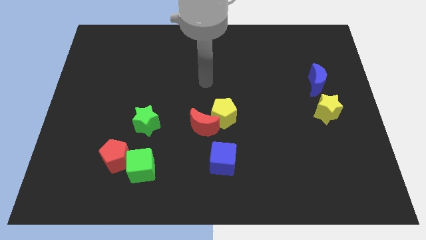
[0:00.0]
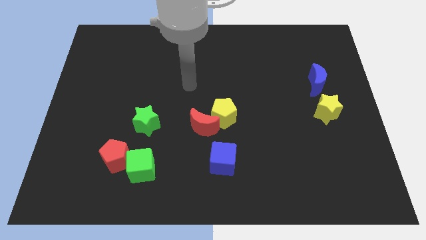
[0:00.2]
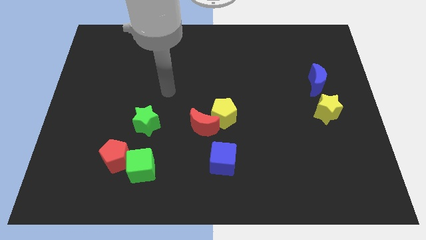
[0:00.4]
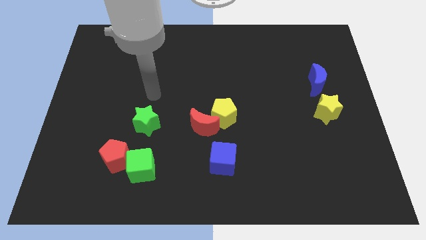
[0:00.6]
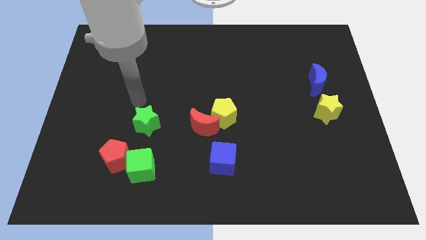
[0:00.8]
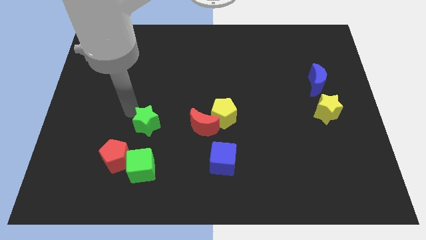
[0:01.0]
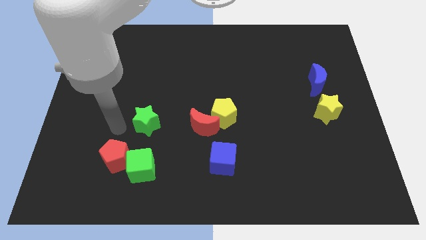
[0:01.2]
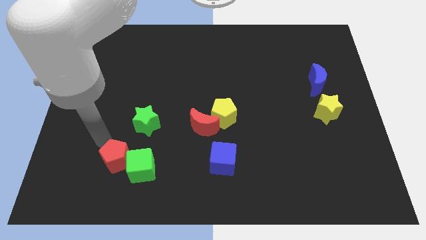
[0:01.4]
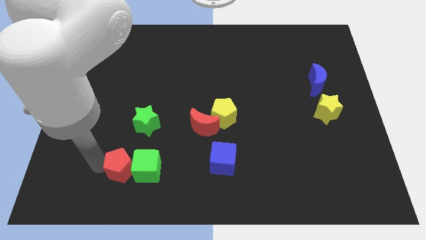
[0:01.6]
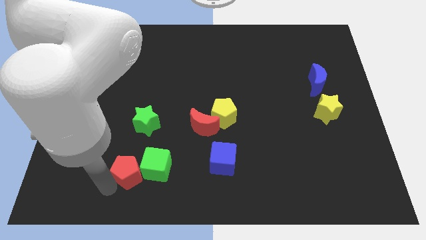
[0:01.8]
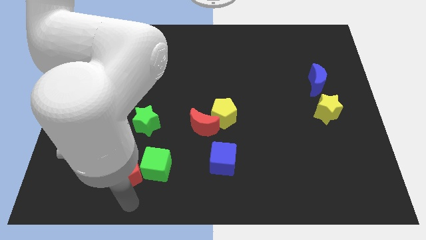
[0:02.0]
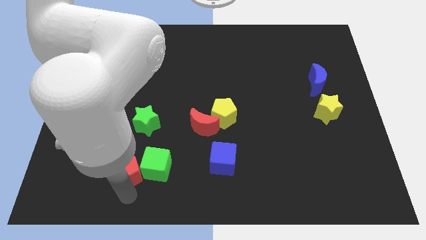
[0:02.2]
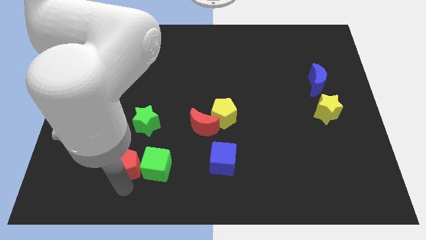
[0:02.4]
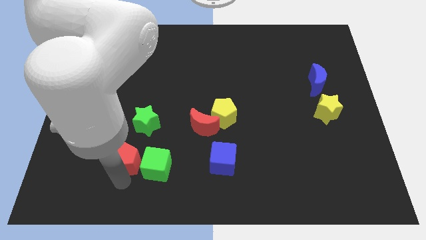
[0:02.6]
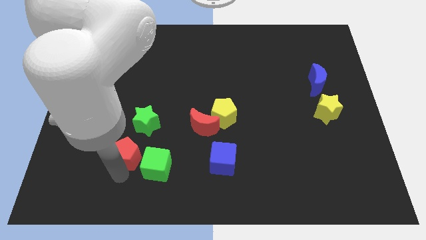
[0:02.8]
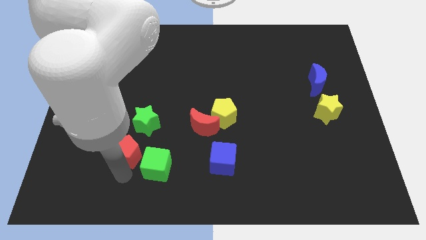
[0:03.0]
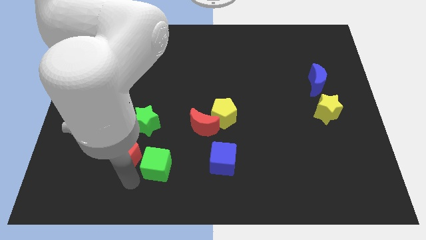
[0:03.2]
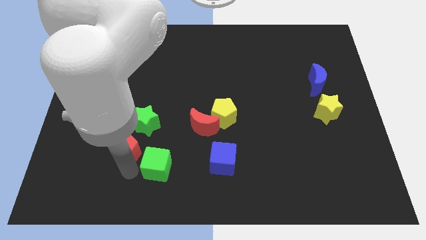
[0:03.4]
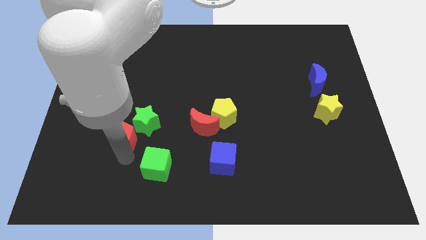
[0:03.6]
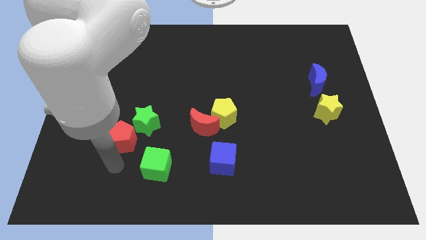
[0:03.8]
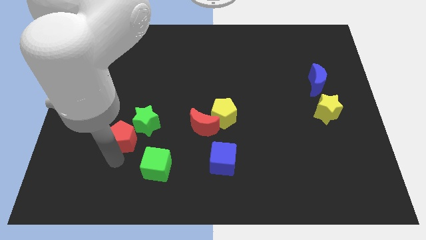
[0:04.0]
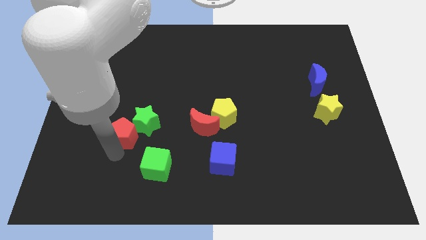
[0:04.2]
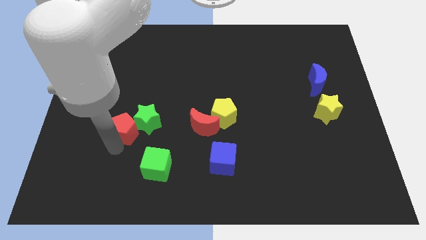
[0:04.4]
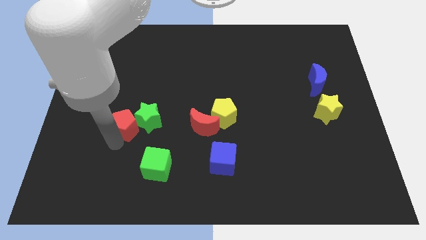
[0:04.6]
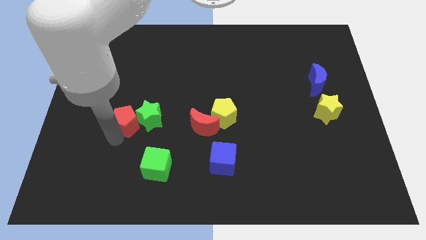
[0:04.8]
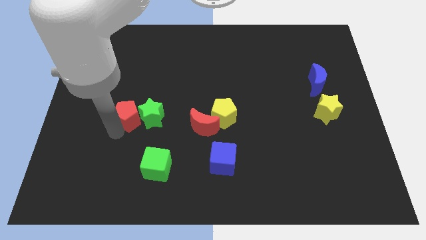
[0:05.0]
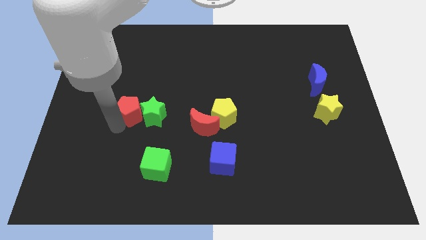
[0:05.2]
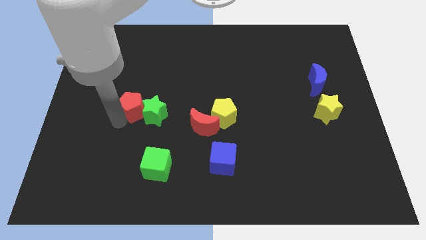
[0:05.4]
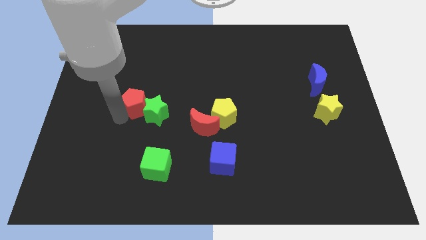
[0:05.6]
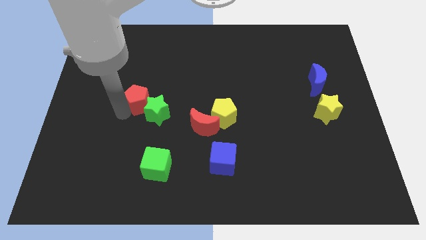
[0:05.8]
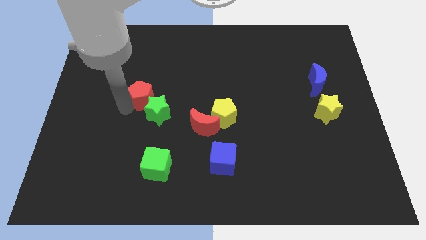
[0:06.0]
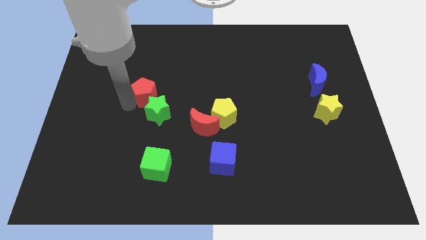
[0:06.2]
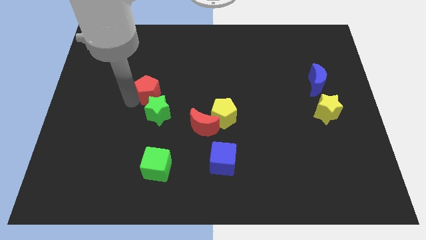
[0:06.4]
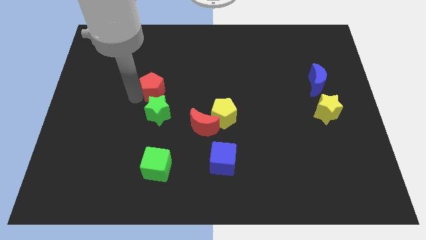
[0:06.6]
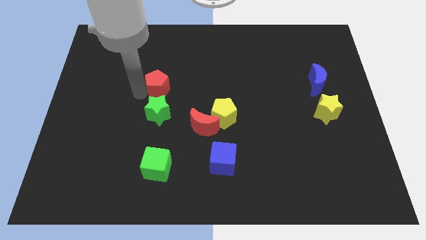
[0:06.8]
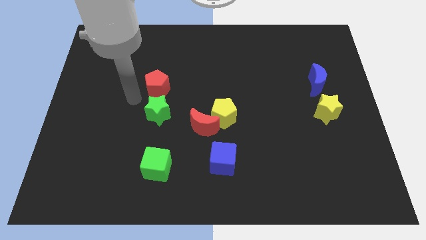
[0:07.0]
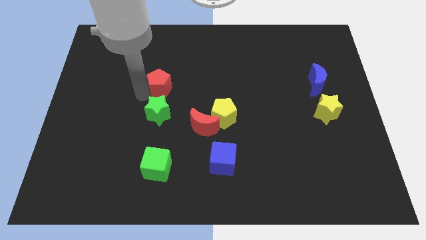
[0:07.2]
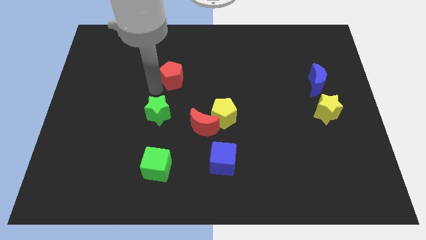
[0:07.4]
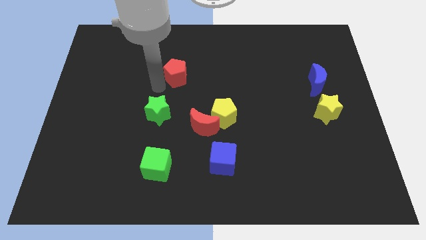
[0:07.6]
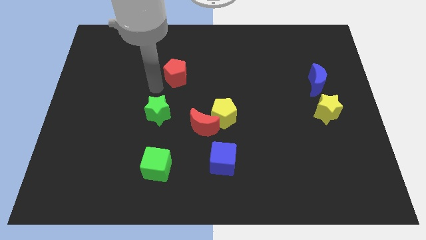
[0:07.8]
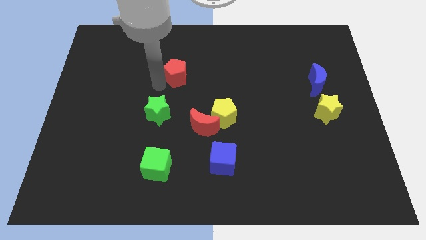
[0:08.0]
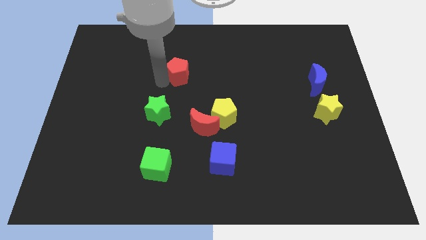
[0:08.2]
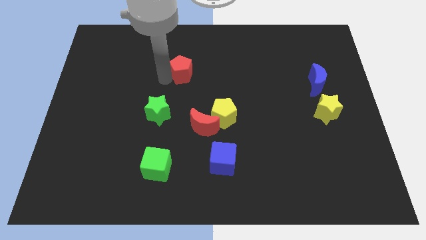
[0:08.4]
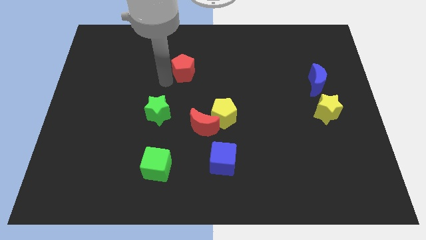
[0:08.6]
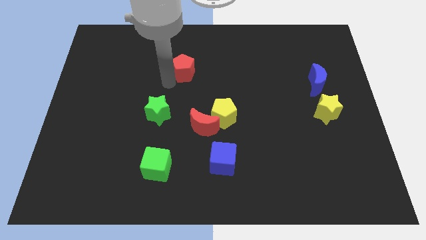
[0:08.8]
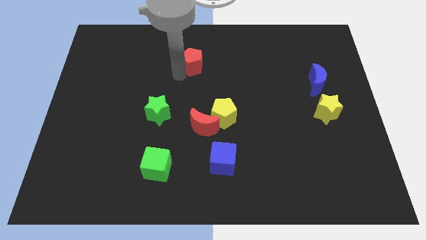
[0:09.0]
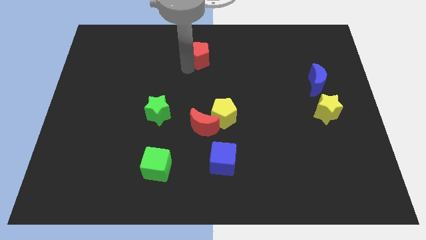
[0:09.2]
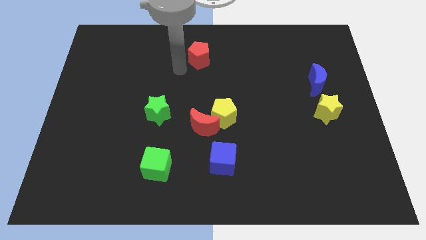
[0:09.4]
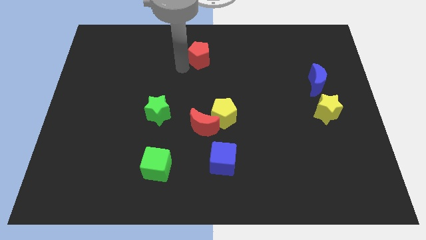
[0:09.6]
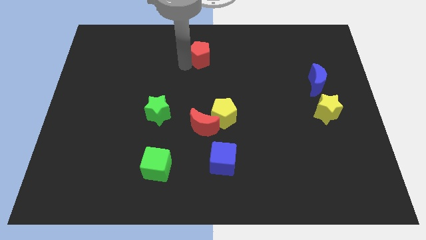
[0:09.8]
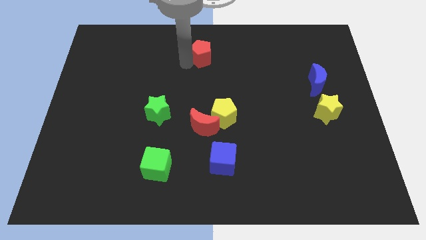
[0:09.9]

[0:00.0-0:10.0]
push the red pentagon to the top side

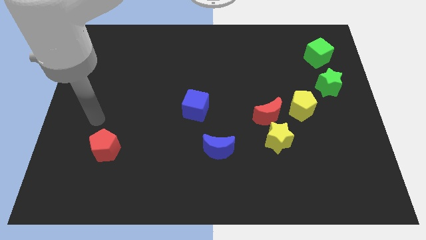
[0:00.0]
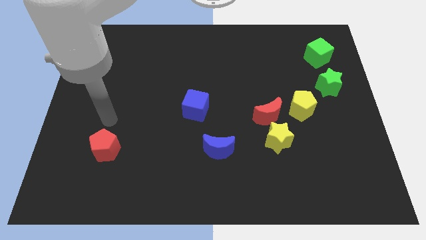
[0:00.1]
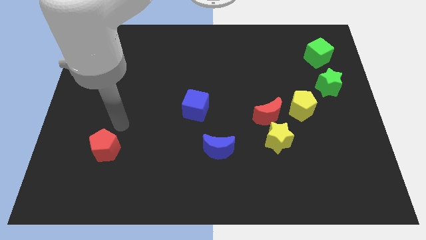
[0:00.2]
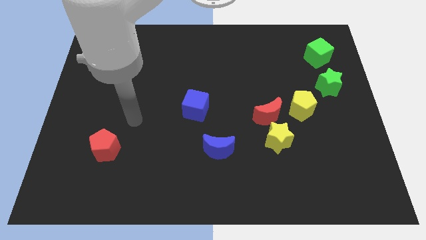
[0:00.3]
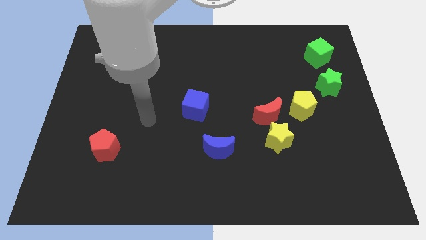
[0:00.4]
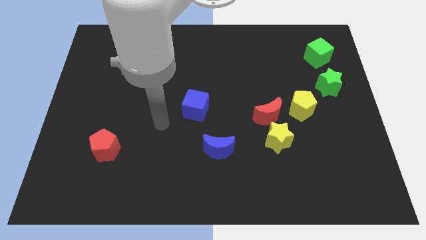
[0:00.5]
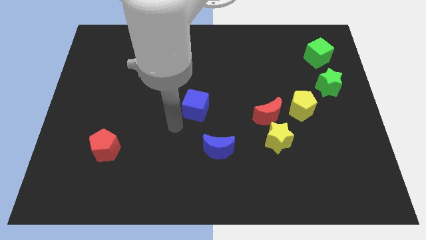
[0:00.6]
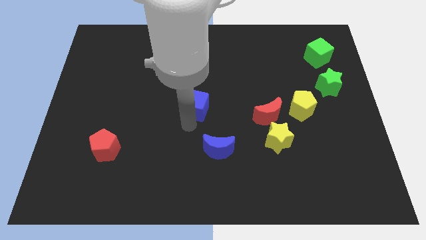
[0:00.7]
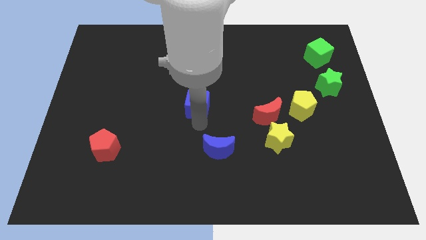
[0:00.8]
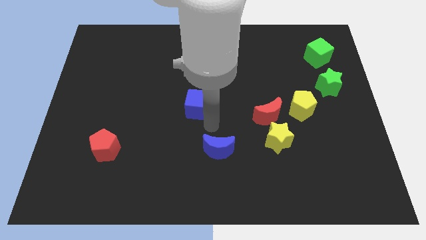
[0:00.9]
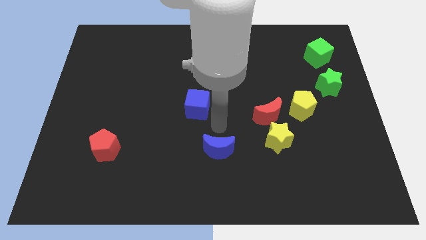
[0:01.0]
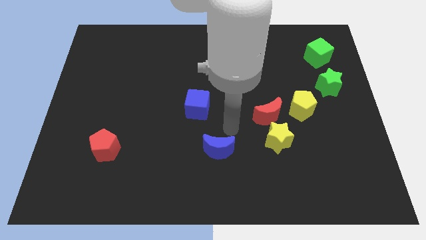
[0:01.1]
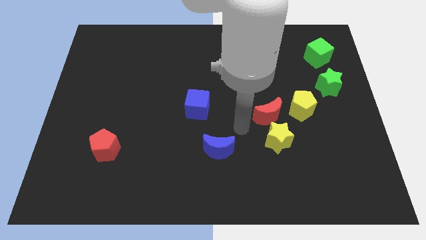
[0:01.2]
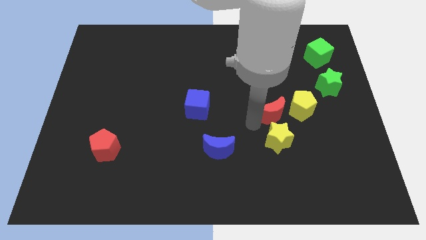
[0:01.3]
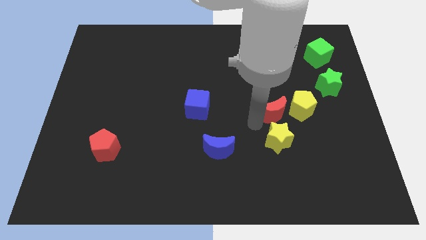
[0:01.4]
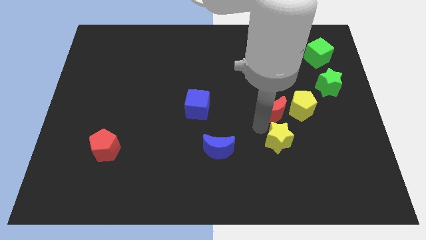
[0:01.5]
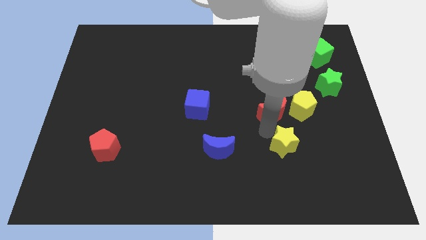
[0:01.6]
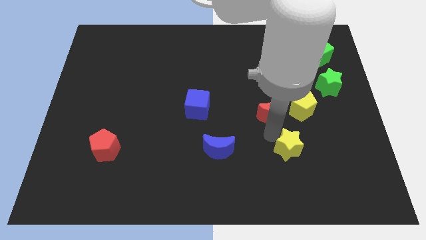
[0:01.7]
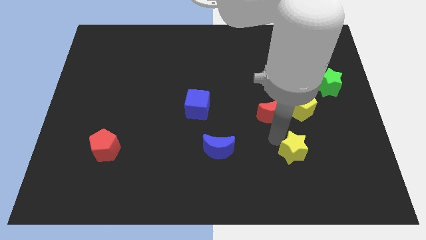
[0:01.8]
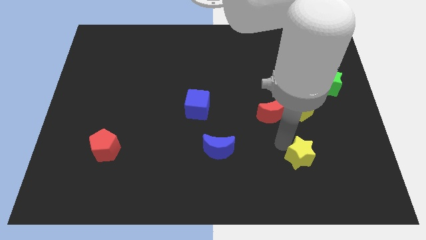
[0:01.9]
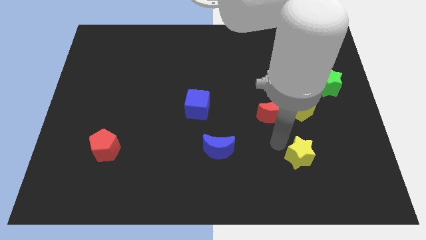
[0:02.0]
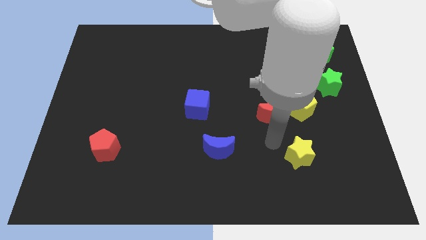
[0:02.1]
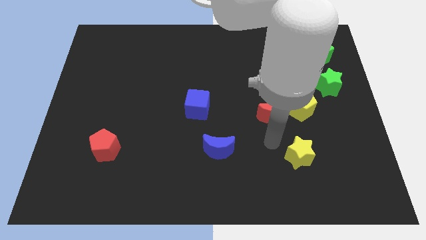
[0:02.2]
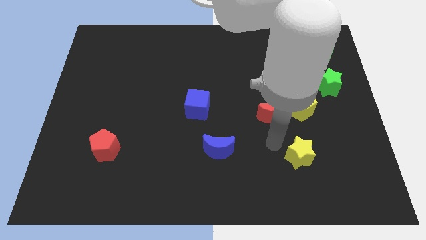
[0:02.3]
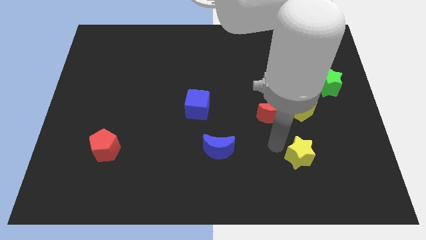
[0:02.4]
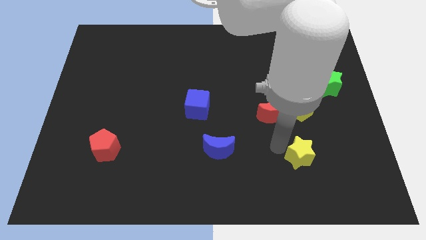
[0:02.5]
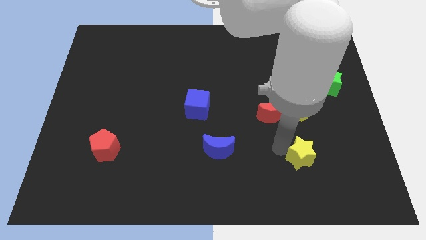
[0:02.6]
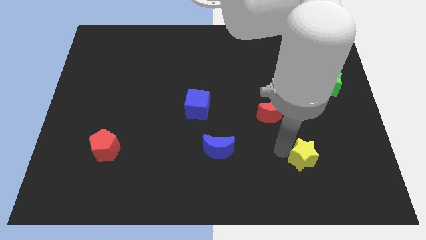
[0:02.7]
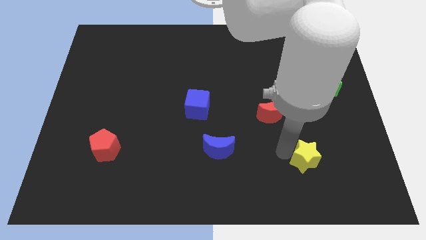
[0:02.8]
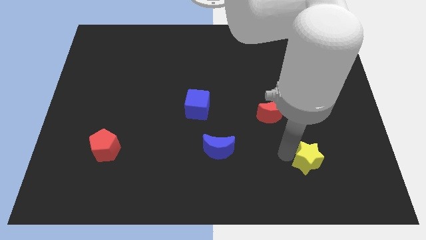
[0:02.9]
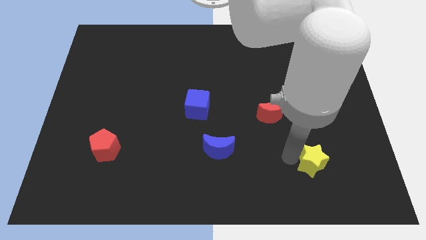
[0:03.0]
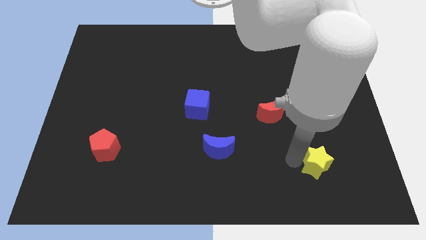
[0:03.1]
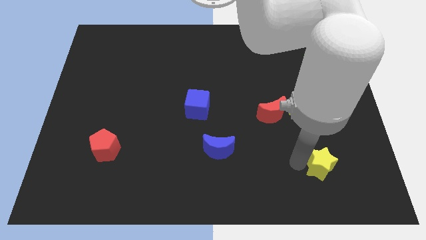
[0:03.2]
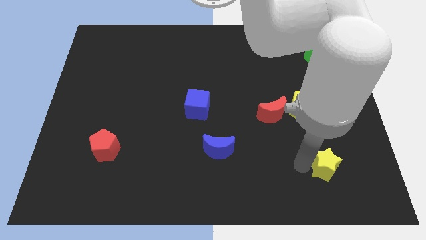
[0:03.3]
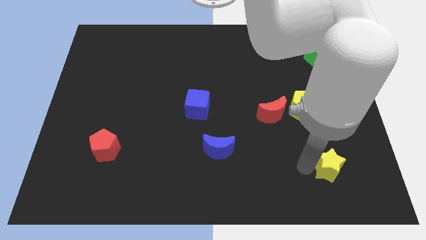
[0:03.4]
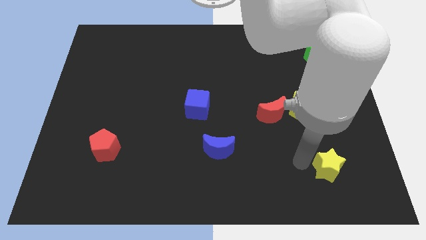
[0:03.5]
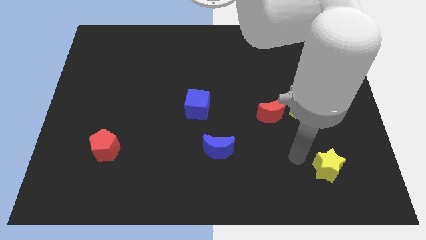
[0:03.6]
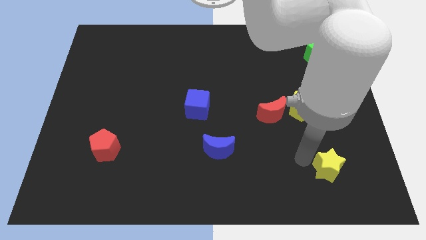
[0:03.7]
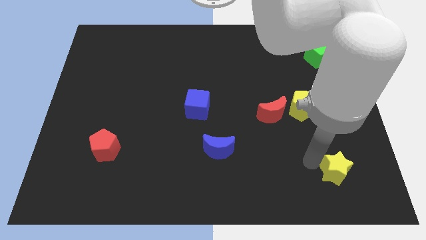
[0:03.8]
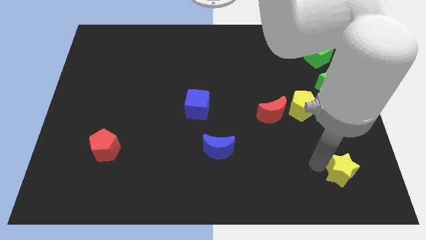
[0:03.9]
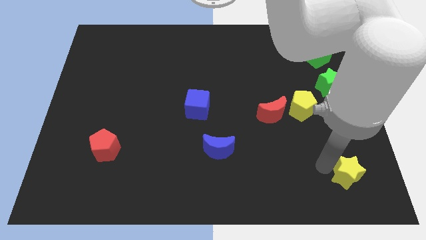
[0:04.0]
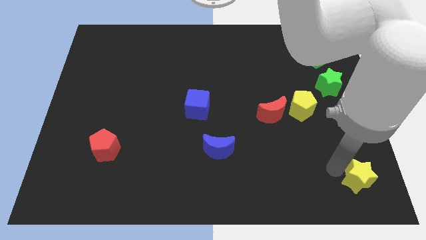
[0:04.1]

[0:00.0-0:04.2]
slide the yellow star to the bottom right corner
